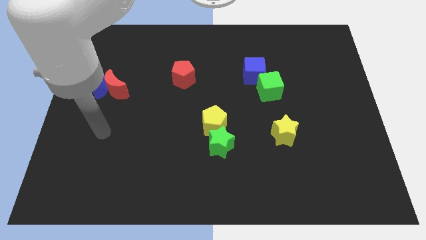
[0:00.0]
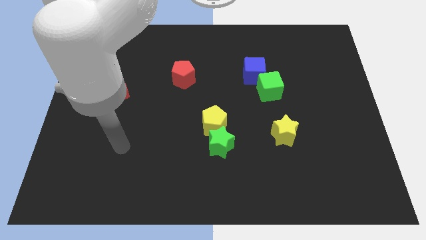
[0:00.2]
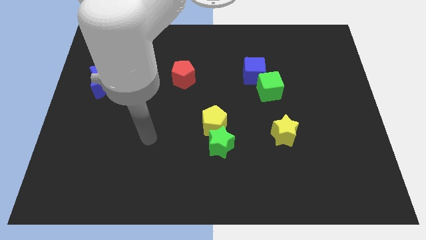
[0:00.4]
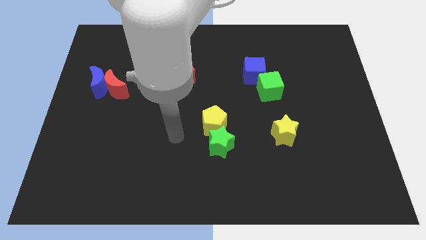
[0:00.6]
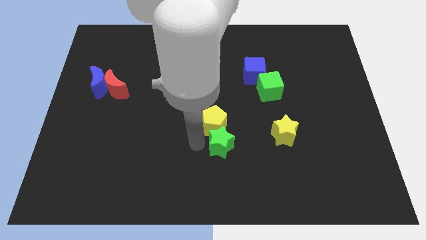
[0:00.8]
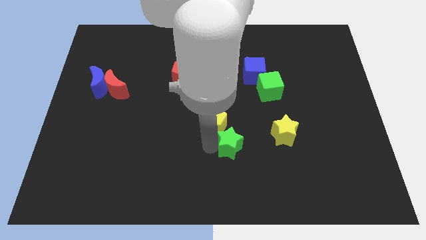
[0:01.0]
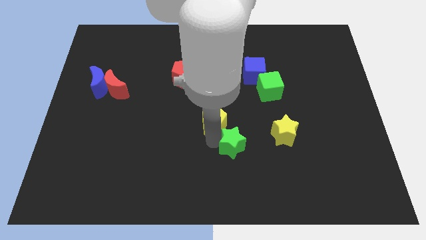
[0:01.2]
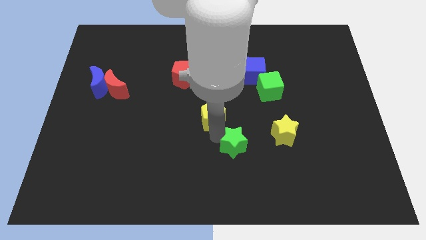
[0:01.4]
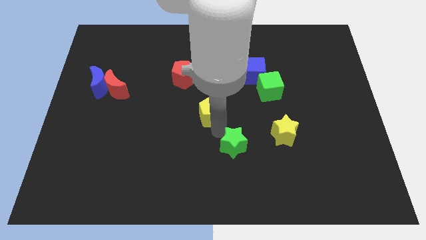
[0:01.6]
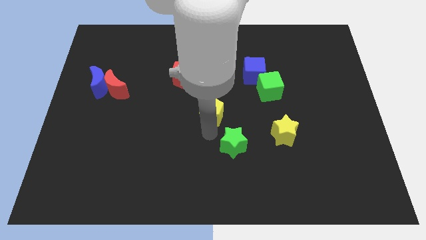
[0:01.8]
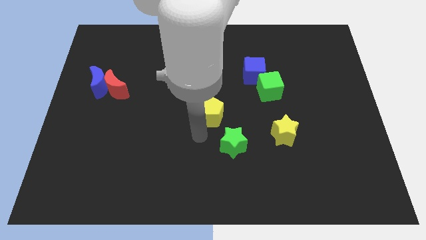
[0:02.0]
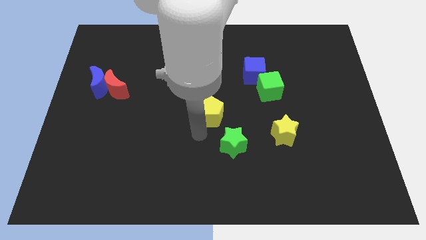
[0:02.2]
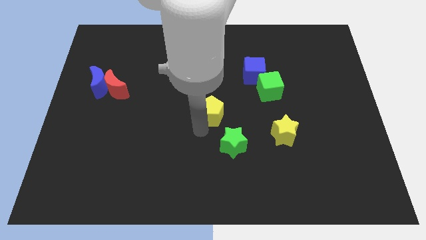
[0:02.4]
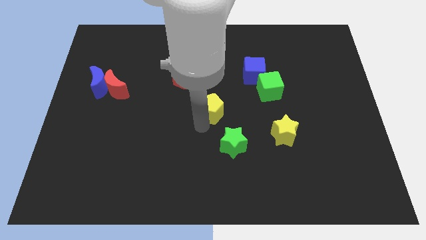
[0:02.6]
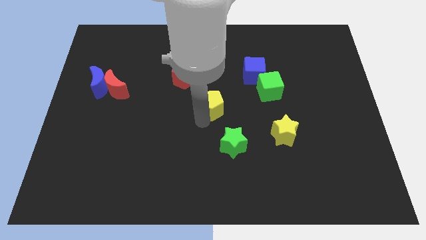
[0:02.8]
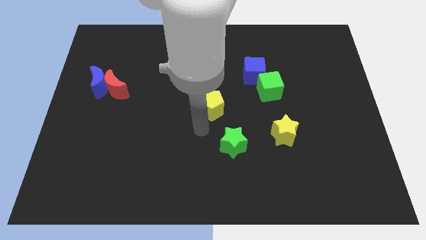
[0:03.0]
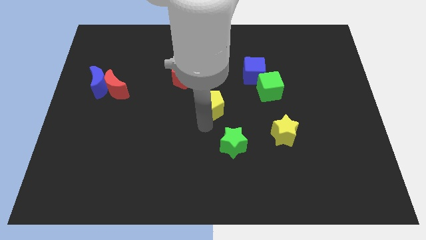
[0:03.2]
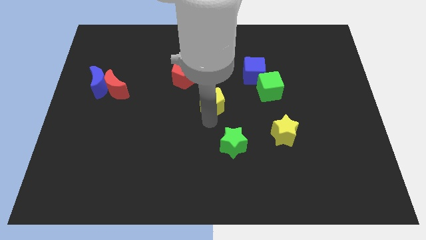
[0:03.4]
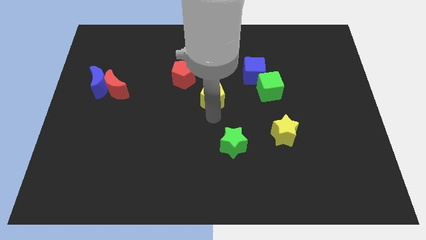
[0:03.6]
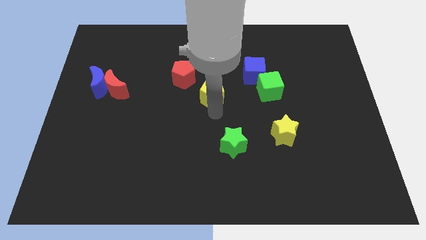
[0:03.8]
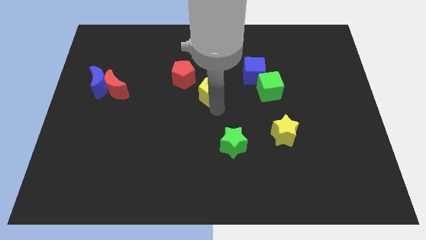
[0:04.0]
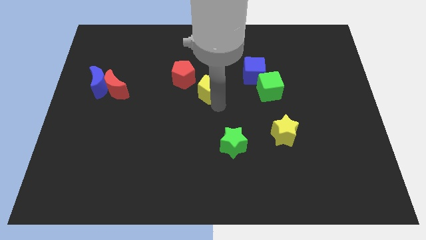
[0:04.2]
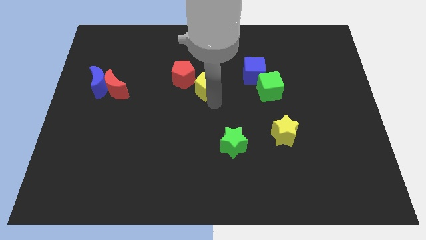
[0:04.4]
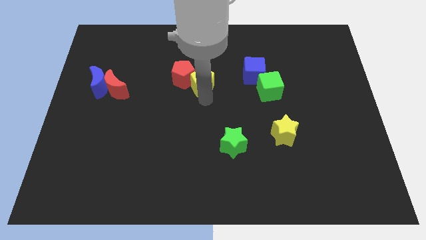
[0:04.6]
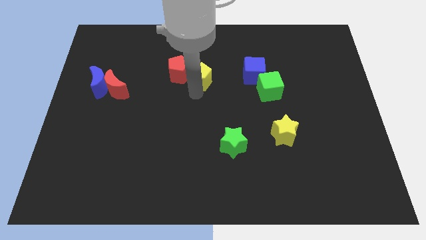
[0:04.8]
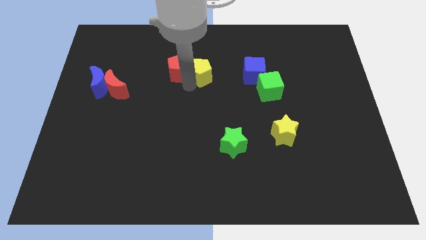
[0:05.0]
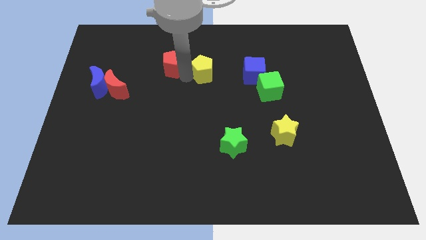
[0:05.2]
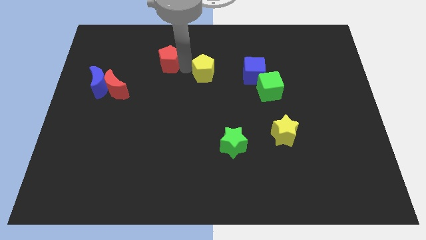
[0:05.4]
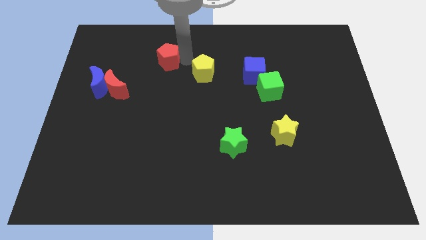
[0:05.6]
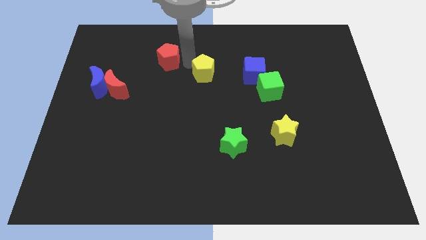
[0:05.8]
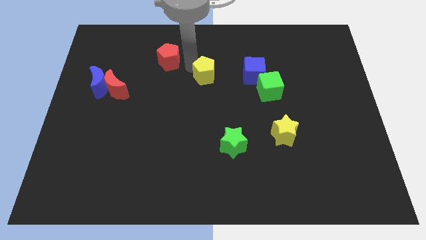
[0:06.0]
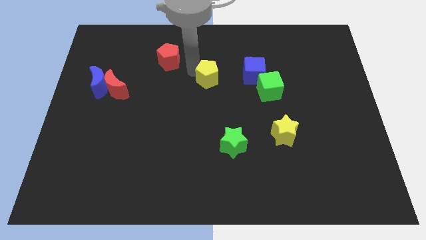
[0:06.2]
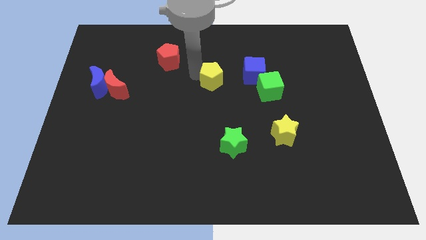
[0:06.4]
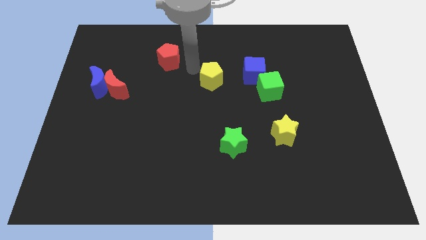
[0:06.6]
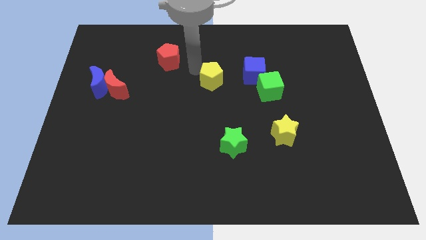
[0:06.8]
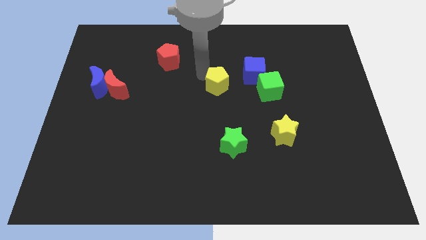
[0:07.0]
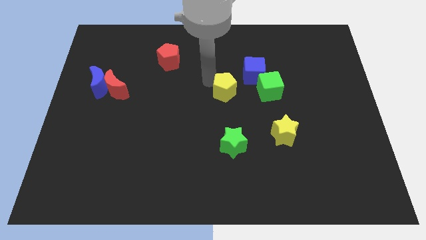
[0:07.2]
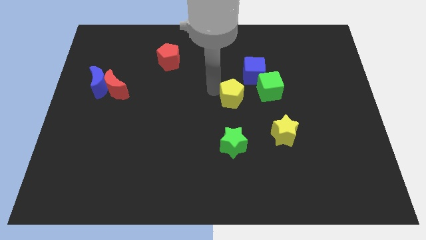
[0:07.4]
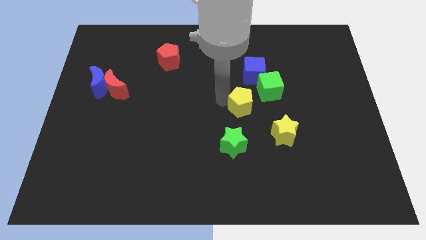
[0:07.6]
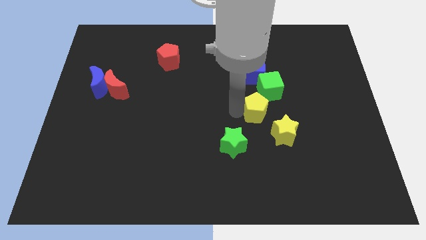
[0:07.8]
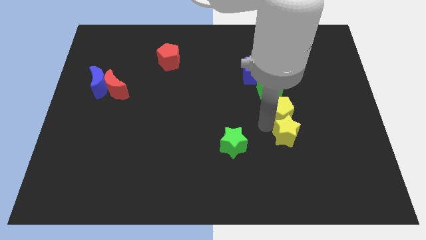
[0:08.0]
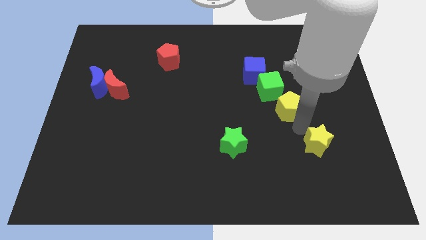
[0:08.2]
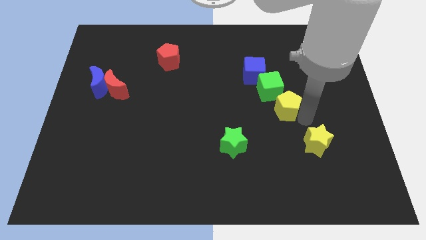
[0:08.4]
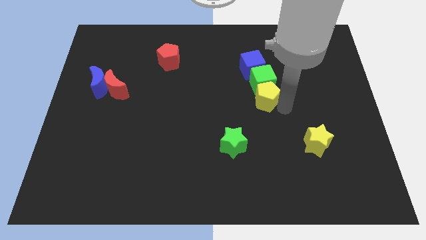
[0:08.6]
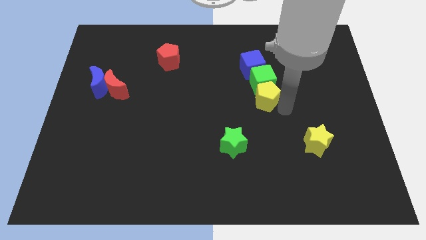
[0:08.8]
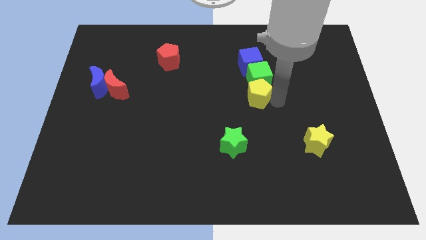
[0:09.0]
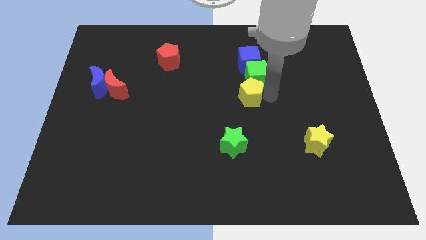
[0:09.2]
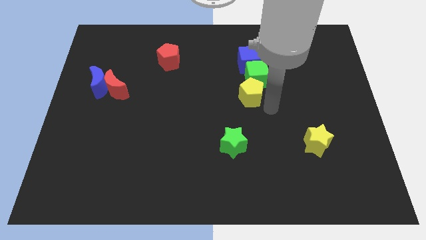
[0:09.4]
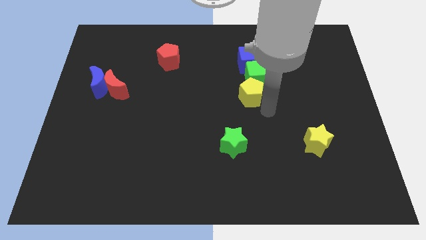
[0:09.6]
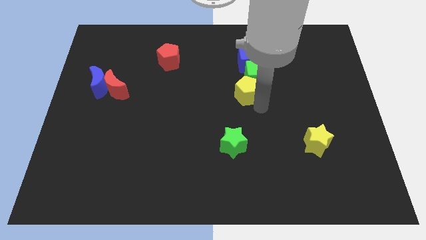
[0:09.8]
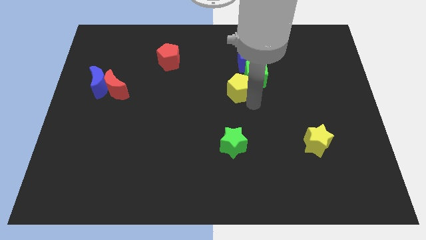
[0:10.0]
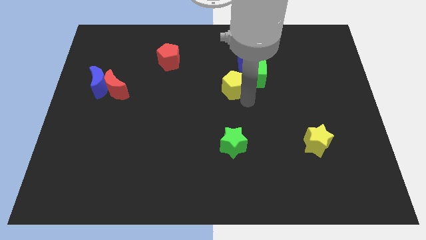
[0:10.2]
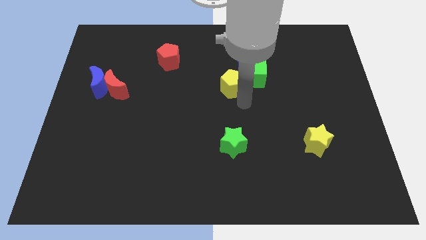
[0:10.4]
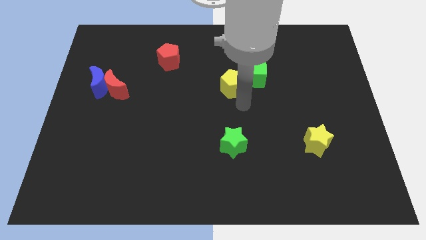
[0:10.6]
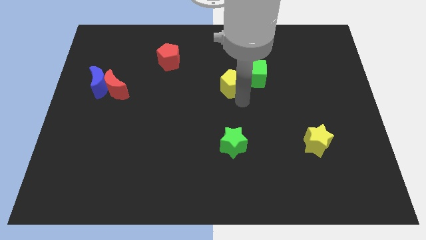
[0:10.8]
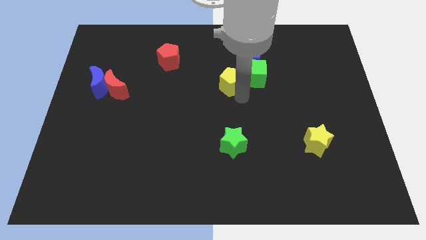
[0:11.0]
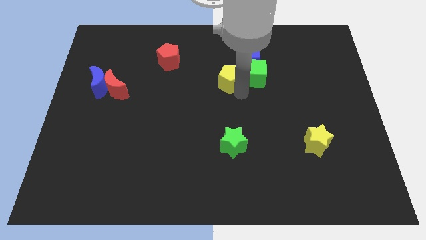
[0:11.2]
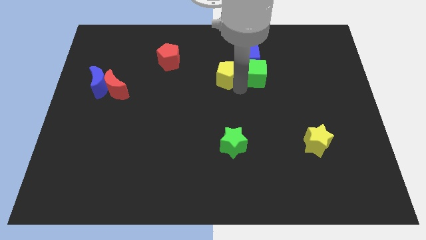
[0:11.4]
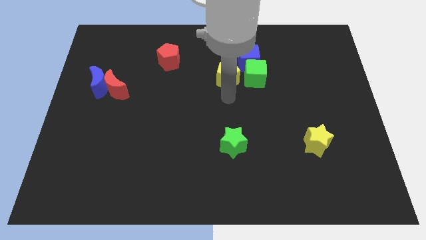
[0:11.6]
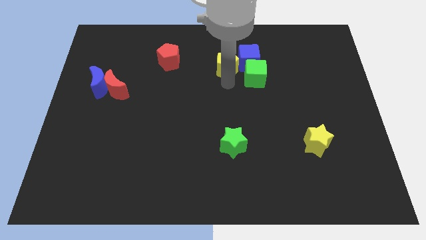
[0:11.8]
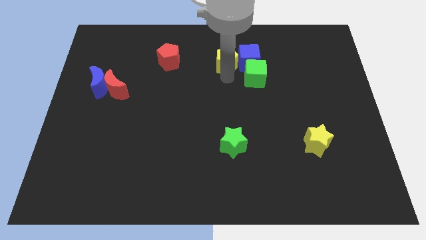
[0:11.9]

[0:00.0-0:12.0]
put the yellow pentagon diagonally up and to the left of the blue cube

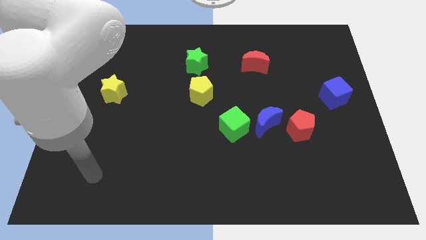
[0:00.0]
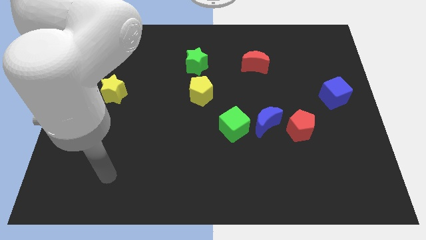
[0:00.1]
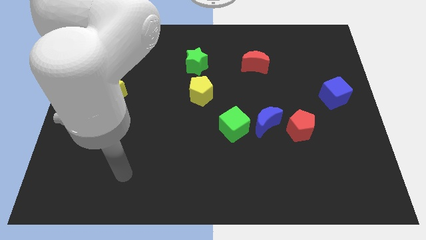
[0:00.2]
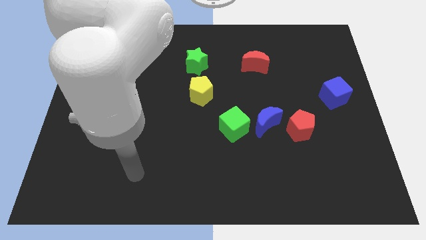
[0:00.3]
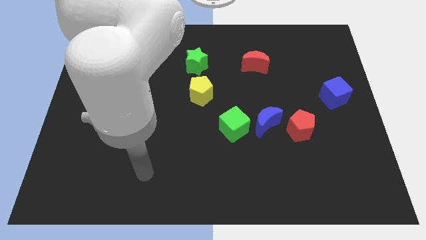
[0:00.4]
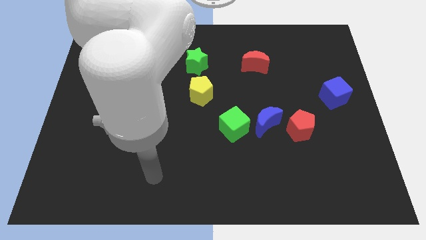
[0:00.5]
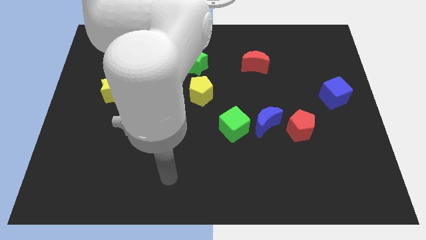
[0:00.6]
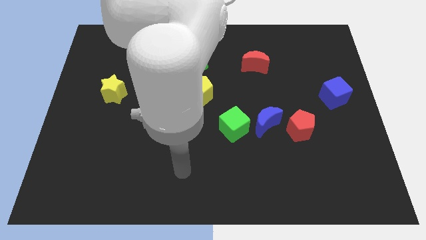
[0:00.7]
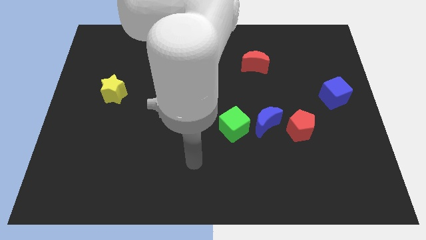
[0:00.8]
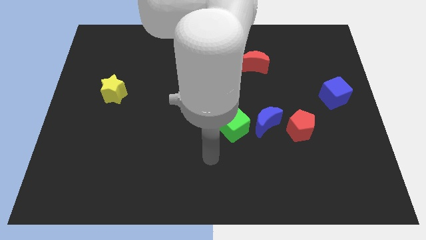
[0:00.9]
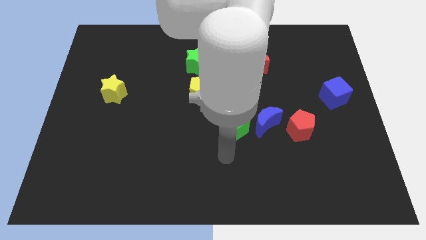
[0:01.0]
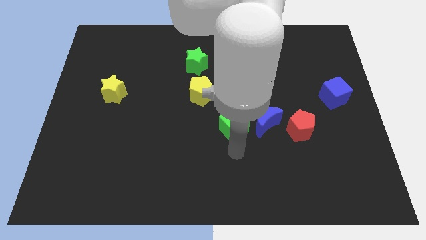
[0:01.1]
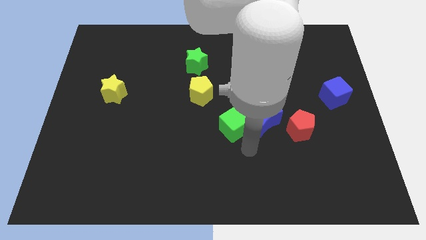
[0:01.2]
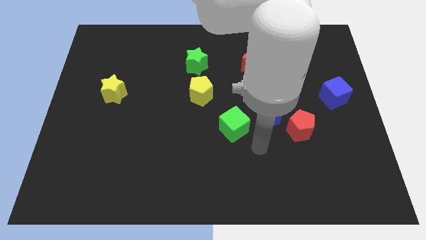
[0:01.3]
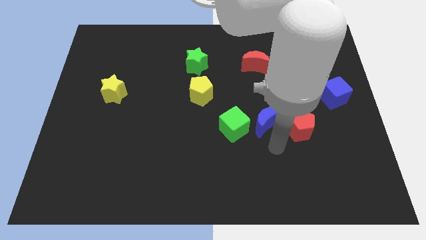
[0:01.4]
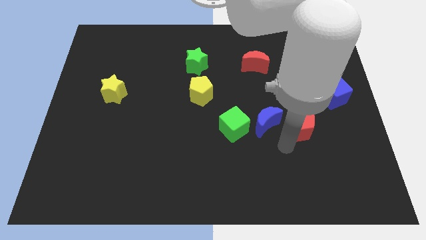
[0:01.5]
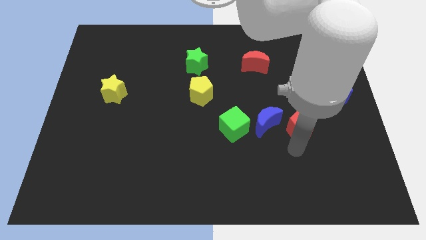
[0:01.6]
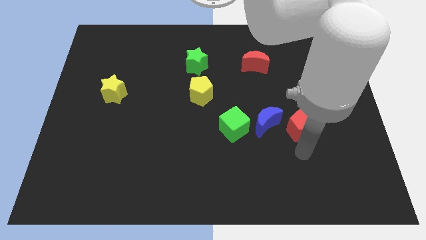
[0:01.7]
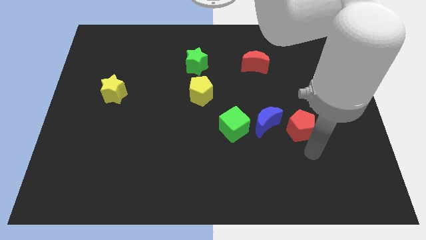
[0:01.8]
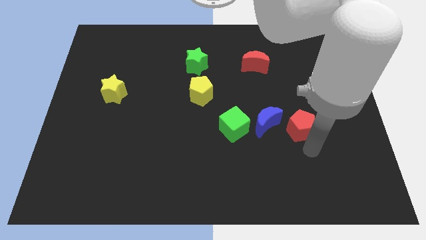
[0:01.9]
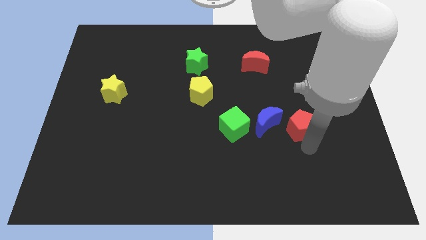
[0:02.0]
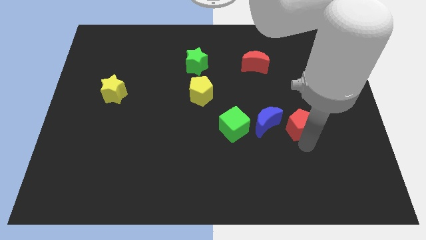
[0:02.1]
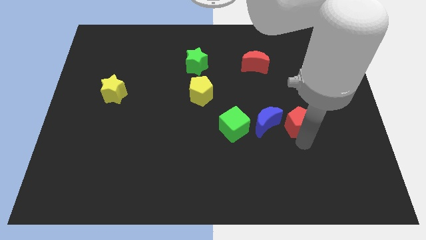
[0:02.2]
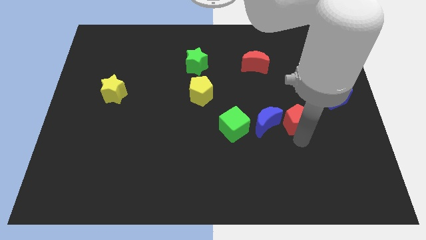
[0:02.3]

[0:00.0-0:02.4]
push the red pentagon to the top right side of the blue moon
